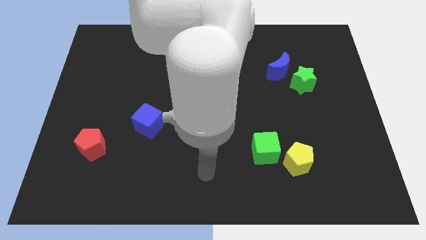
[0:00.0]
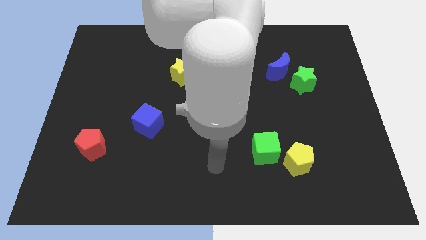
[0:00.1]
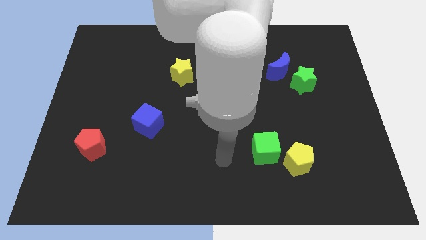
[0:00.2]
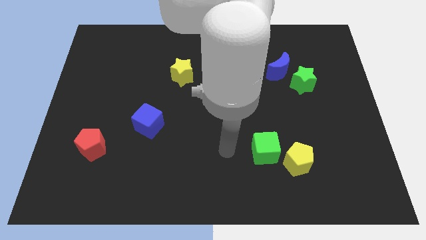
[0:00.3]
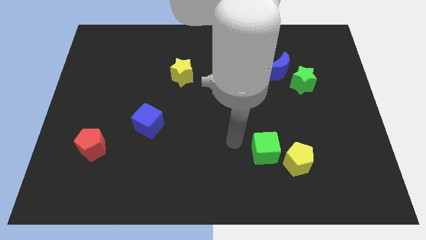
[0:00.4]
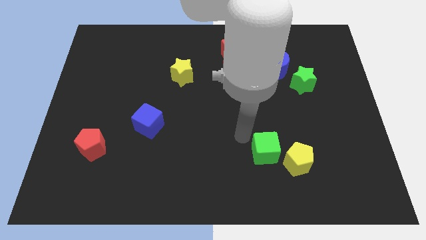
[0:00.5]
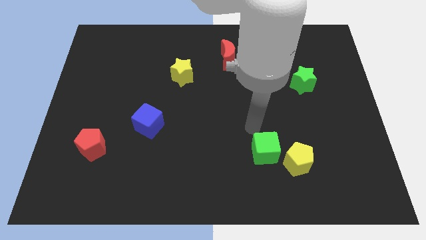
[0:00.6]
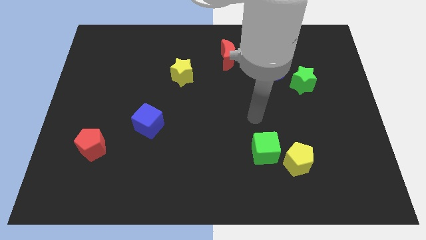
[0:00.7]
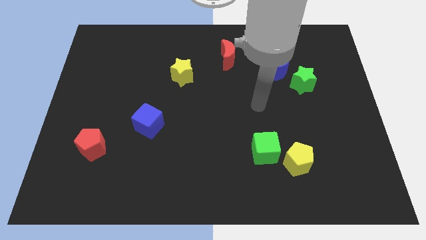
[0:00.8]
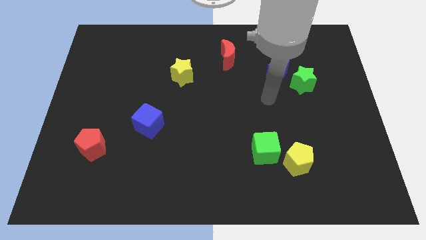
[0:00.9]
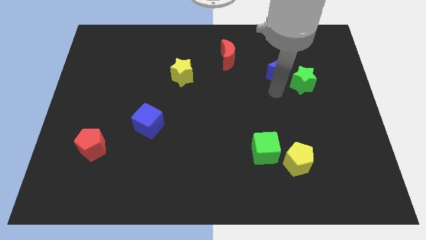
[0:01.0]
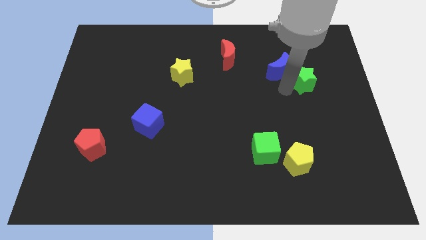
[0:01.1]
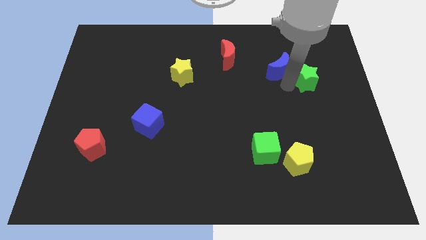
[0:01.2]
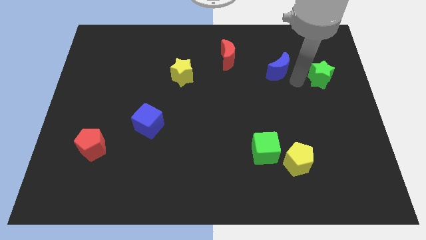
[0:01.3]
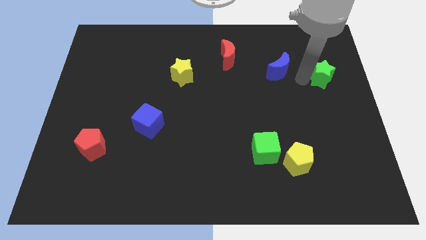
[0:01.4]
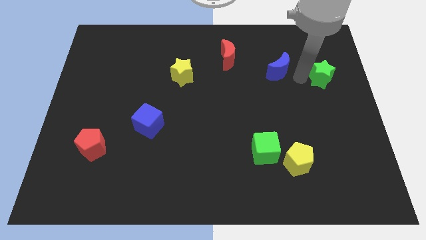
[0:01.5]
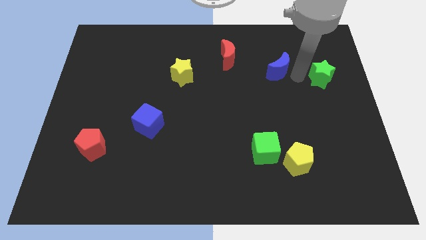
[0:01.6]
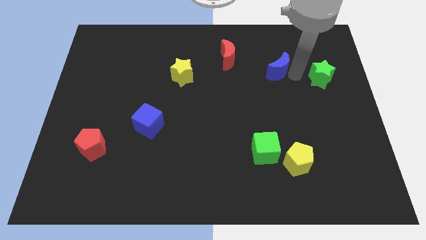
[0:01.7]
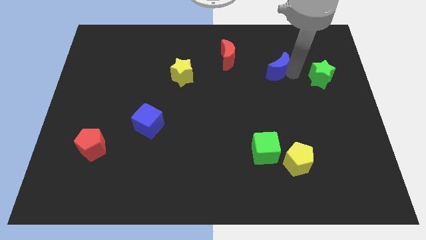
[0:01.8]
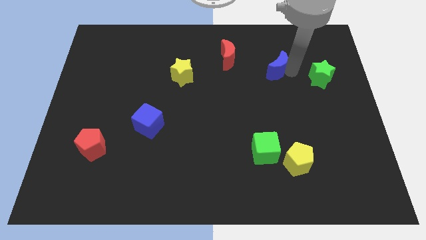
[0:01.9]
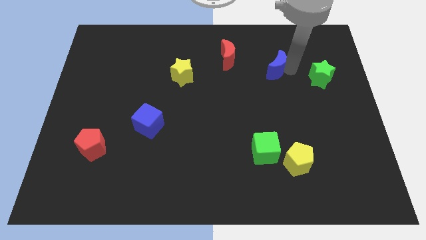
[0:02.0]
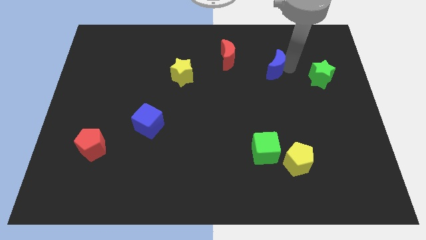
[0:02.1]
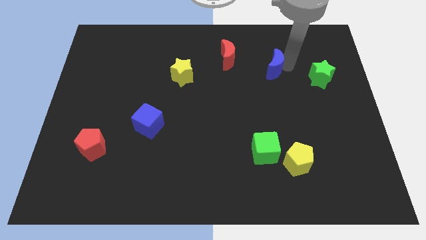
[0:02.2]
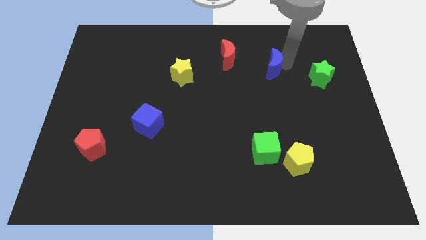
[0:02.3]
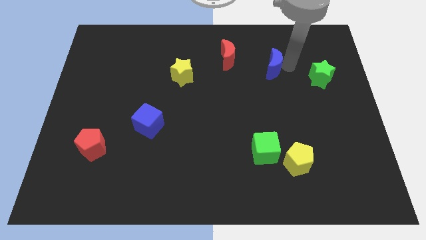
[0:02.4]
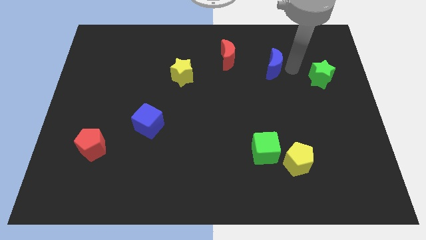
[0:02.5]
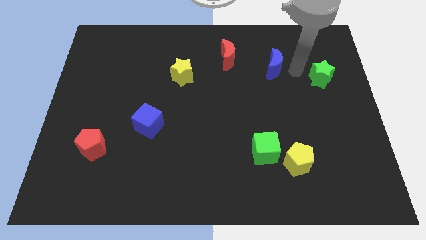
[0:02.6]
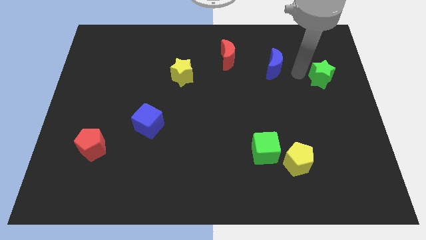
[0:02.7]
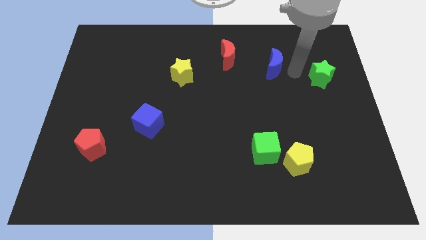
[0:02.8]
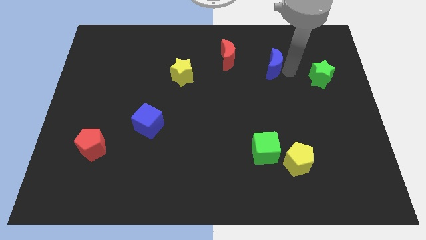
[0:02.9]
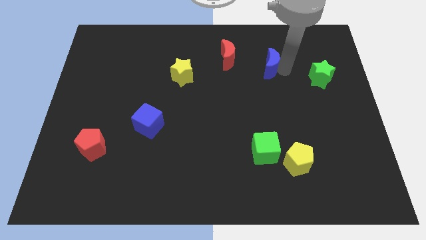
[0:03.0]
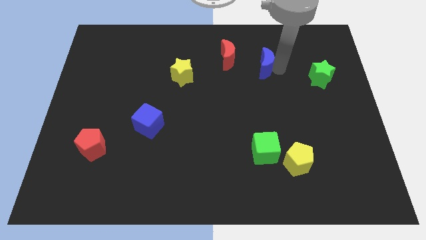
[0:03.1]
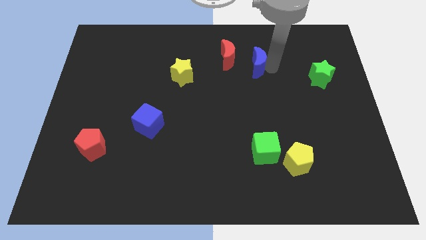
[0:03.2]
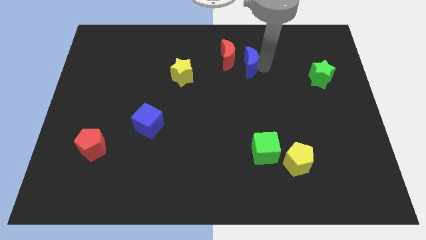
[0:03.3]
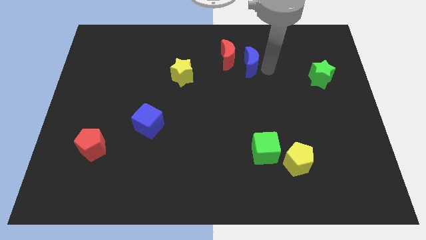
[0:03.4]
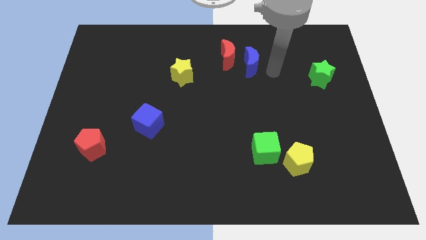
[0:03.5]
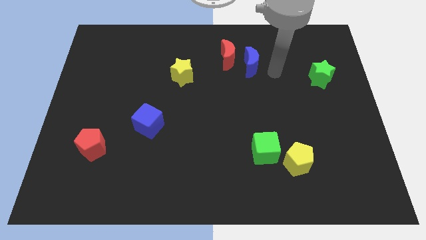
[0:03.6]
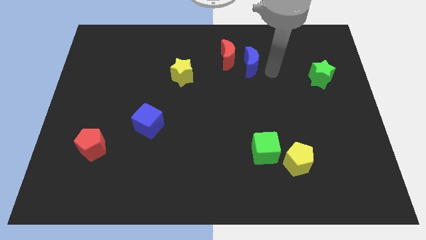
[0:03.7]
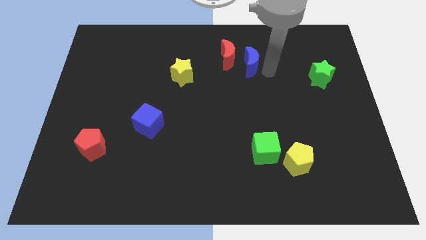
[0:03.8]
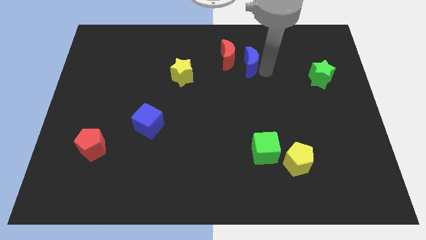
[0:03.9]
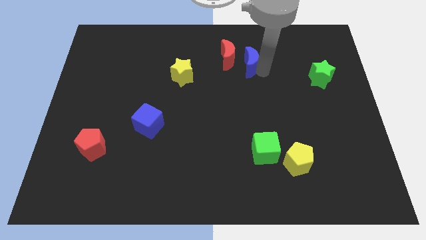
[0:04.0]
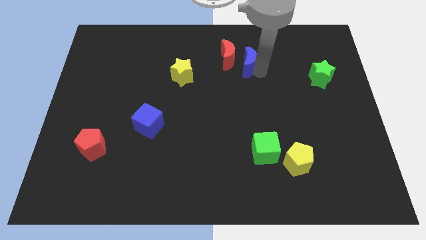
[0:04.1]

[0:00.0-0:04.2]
push the blue moon next to the red moon

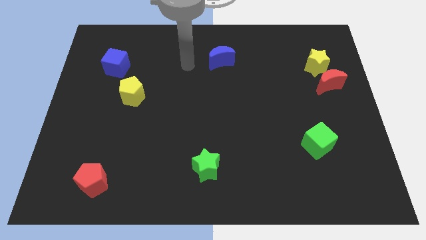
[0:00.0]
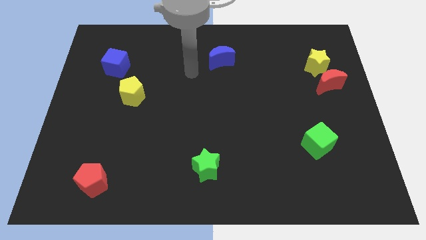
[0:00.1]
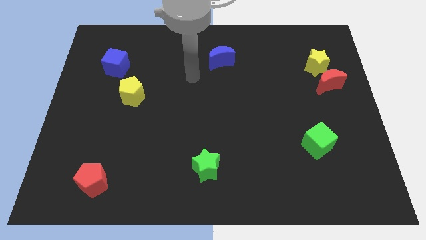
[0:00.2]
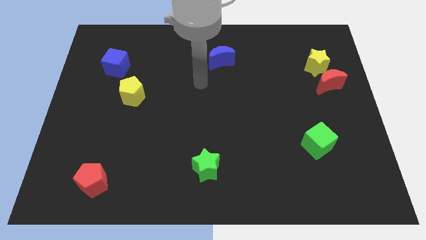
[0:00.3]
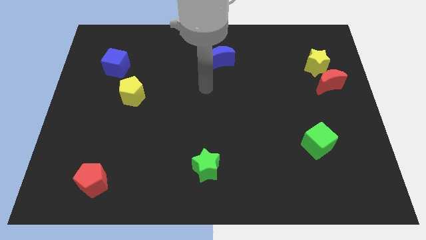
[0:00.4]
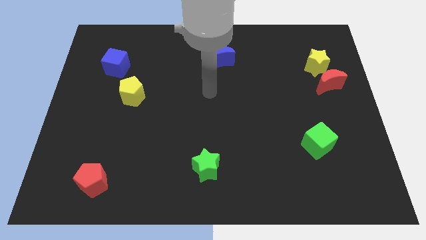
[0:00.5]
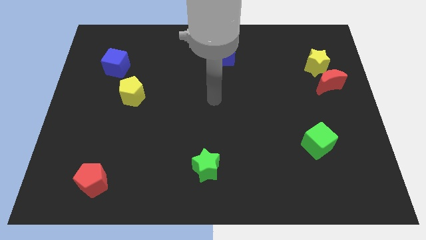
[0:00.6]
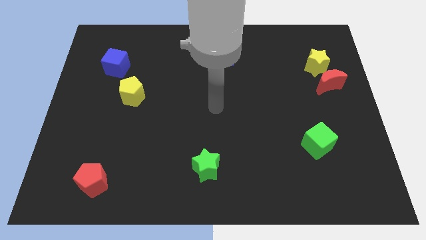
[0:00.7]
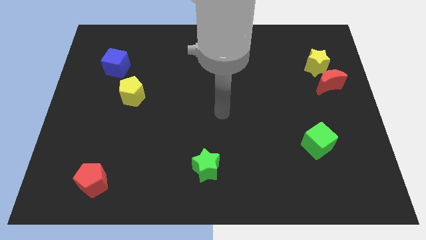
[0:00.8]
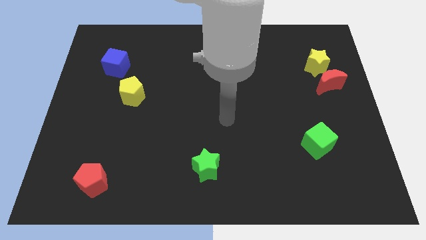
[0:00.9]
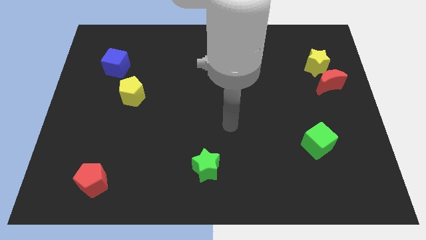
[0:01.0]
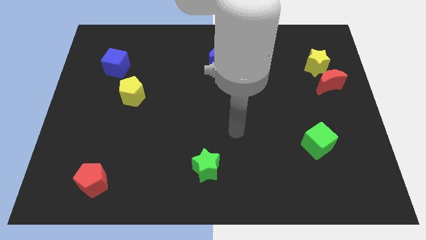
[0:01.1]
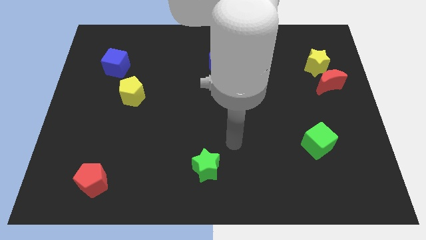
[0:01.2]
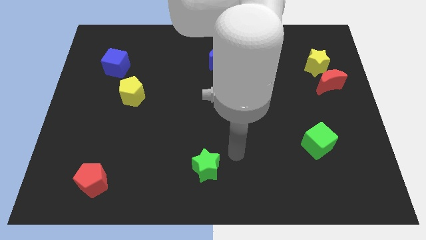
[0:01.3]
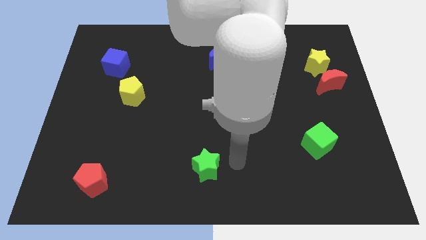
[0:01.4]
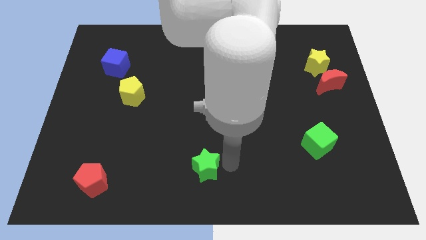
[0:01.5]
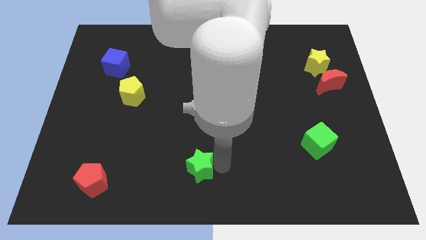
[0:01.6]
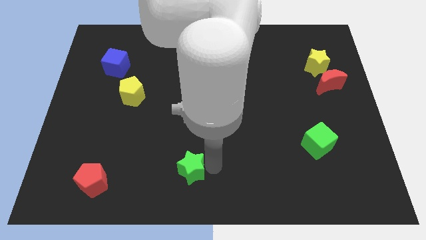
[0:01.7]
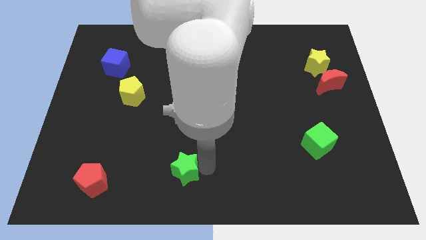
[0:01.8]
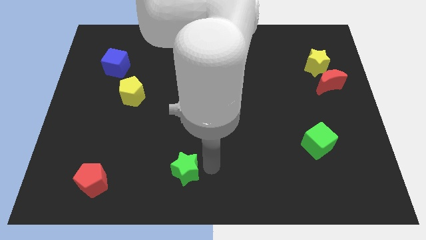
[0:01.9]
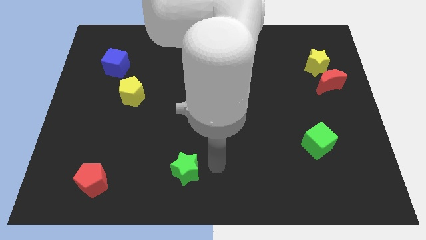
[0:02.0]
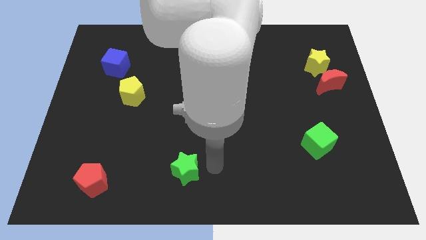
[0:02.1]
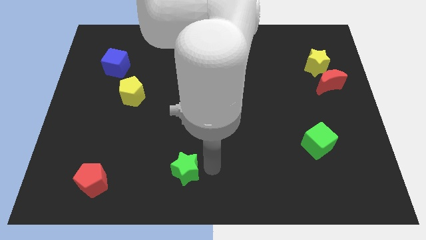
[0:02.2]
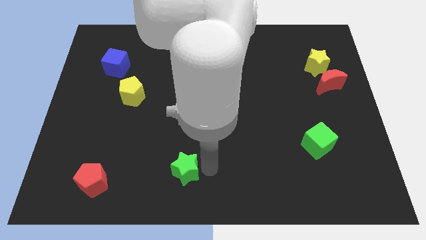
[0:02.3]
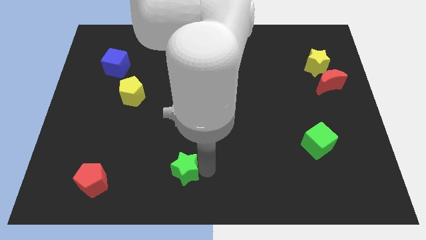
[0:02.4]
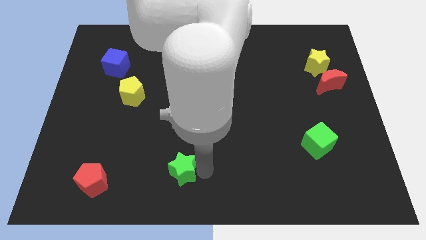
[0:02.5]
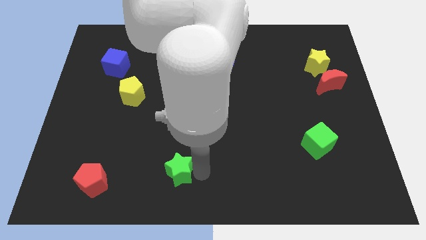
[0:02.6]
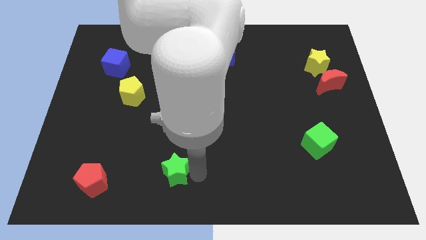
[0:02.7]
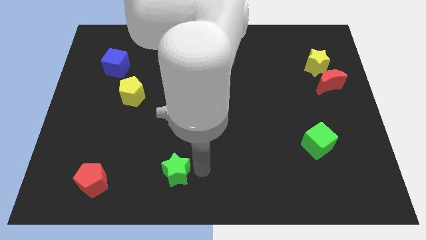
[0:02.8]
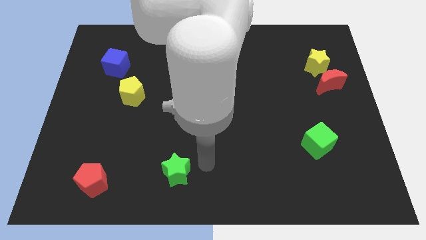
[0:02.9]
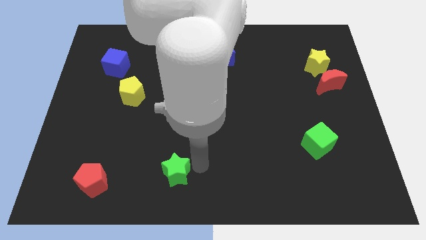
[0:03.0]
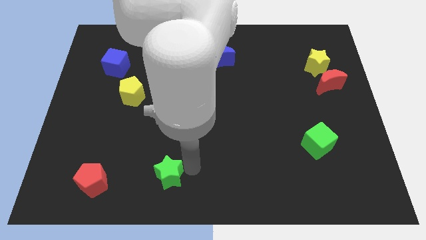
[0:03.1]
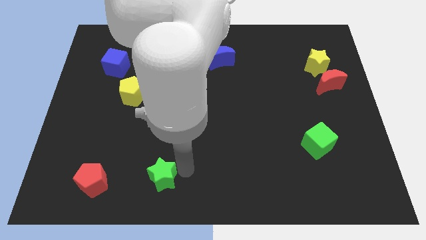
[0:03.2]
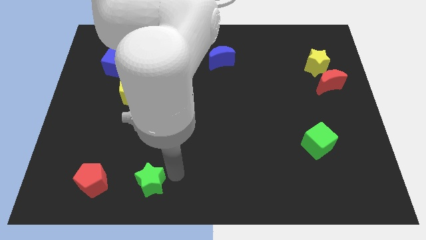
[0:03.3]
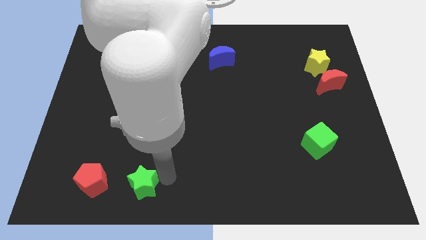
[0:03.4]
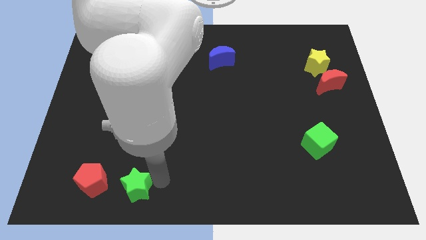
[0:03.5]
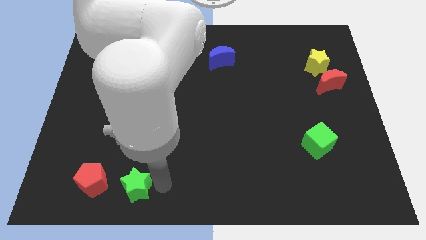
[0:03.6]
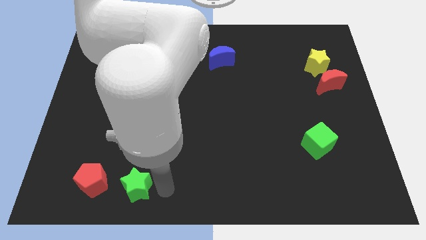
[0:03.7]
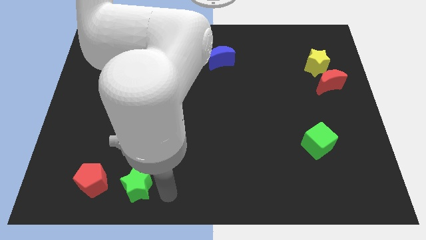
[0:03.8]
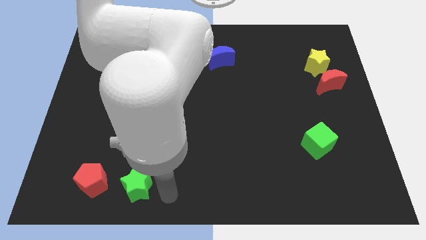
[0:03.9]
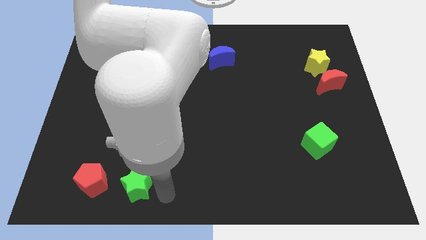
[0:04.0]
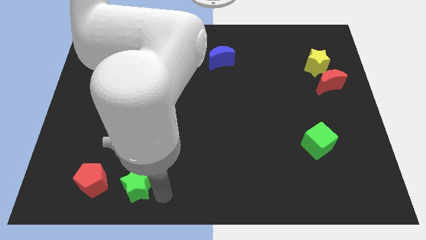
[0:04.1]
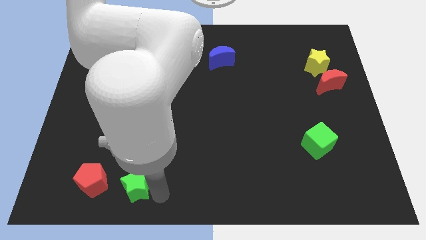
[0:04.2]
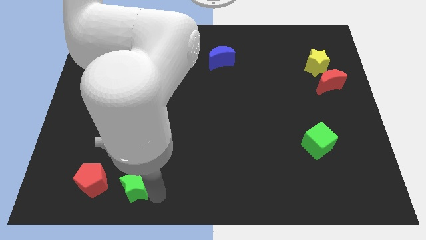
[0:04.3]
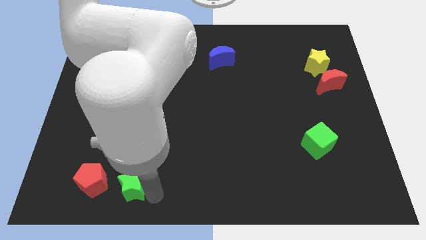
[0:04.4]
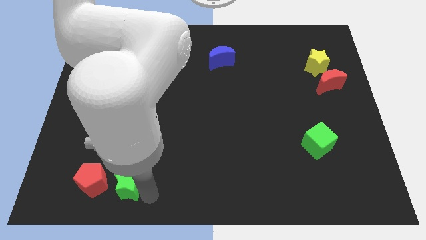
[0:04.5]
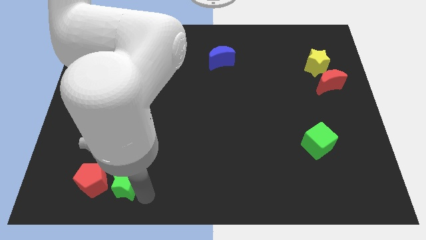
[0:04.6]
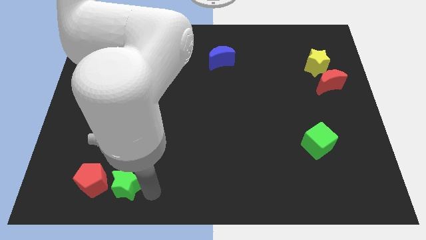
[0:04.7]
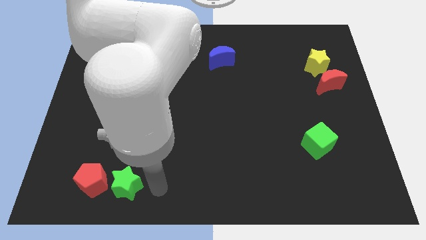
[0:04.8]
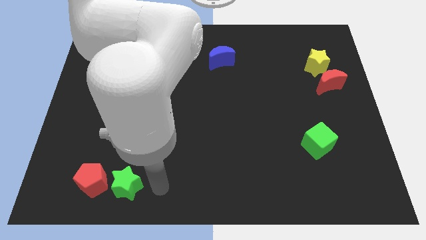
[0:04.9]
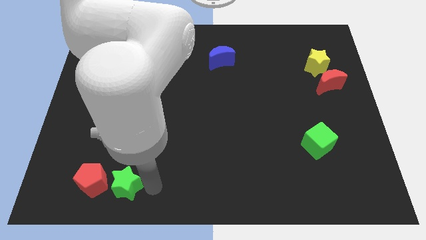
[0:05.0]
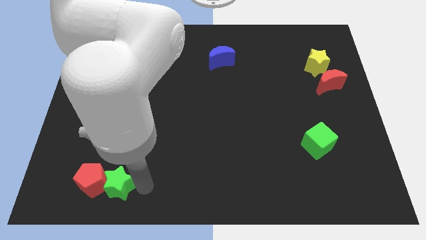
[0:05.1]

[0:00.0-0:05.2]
put the green star to the red pentagon
